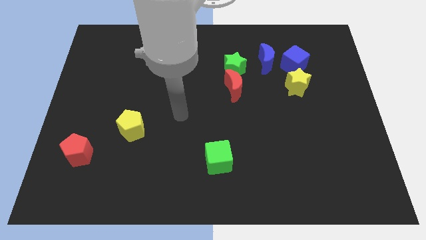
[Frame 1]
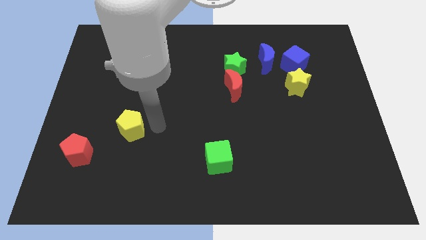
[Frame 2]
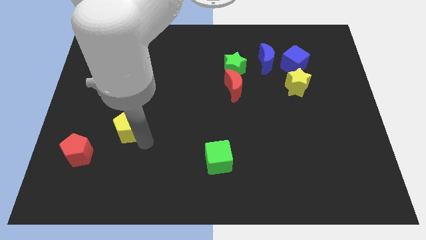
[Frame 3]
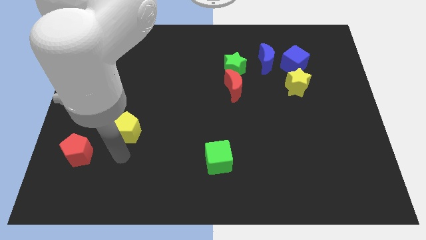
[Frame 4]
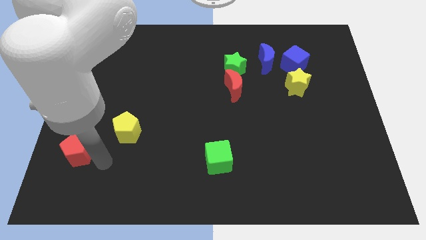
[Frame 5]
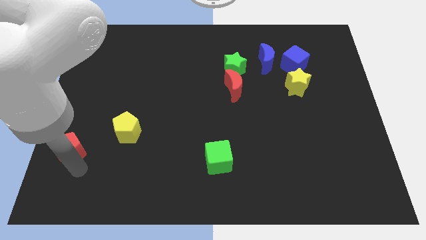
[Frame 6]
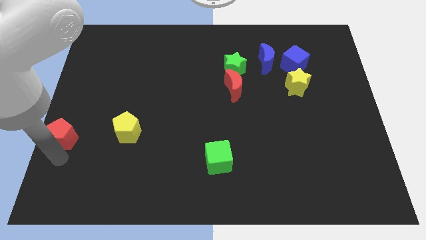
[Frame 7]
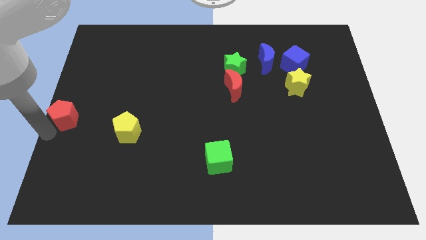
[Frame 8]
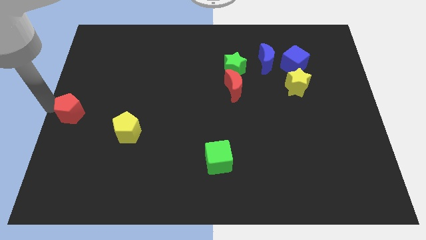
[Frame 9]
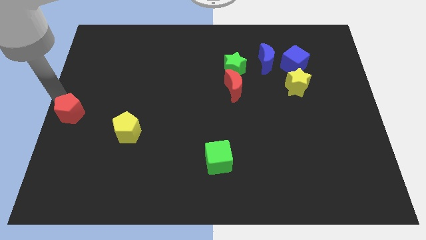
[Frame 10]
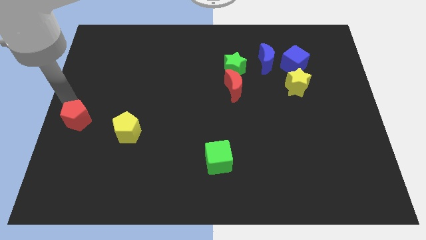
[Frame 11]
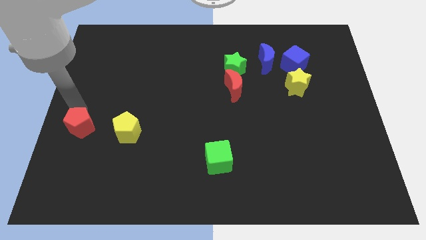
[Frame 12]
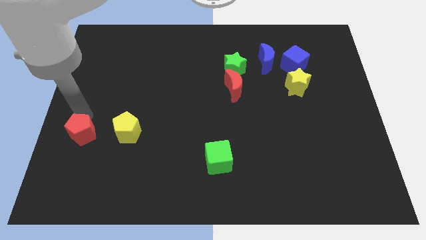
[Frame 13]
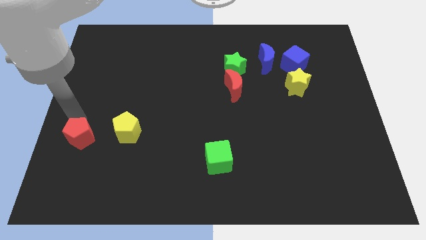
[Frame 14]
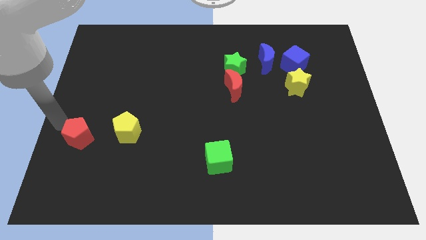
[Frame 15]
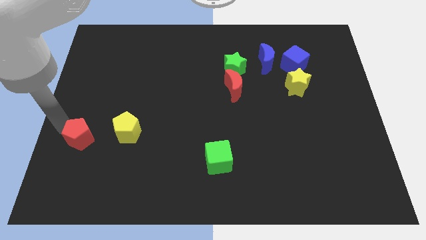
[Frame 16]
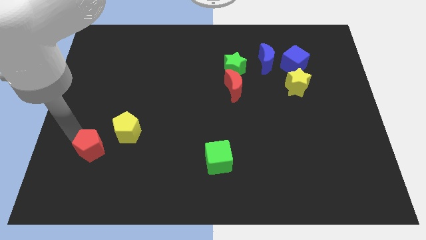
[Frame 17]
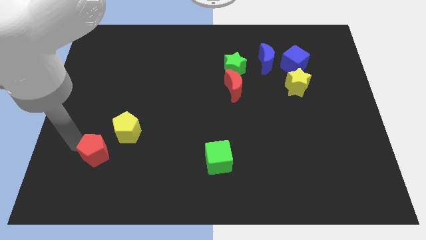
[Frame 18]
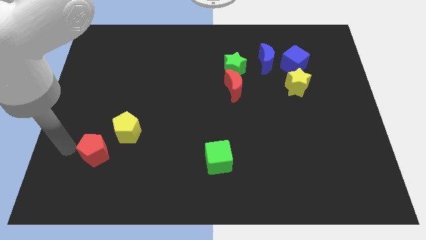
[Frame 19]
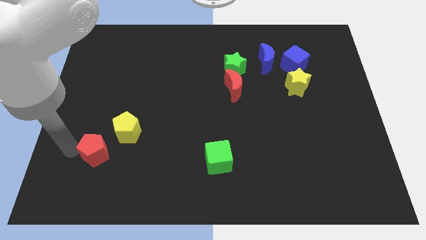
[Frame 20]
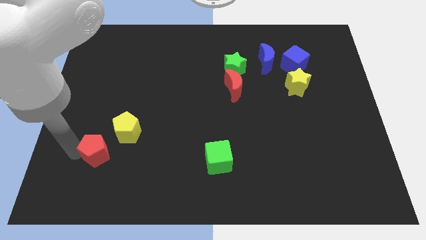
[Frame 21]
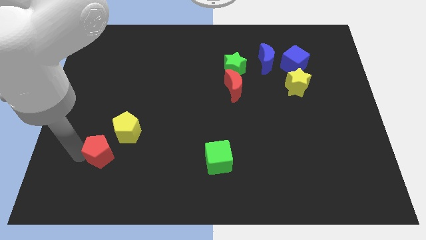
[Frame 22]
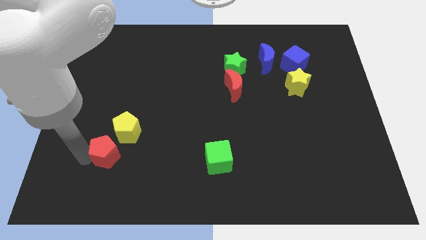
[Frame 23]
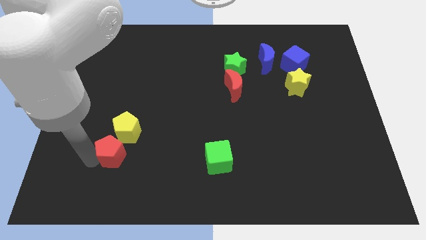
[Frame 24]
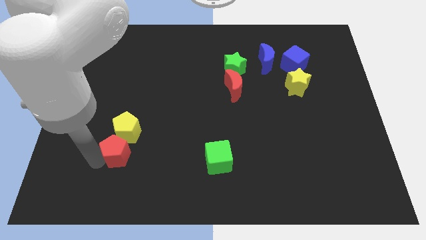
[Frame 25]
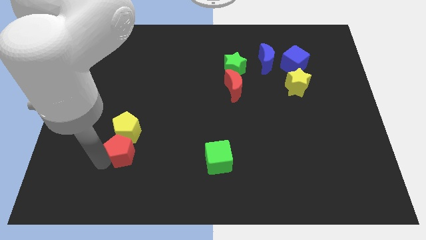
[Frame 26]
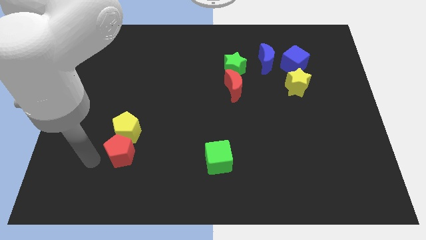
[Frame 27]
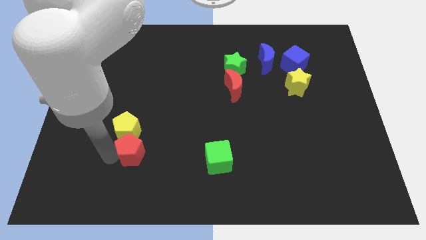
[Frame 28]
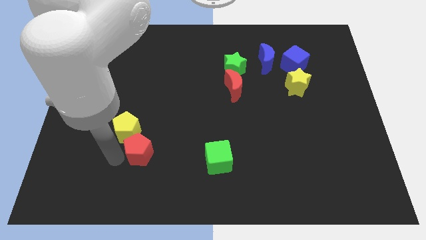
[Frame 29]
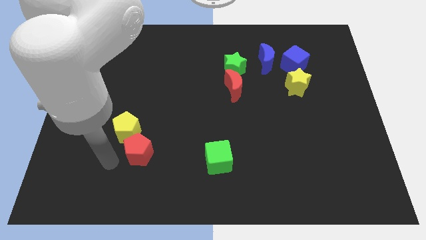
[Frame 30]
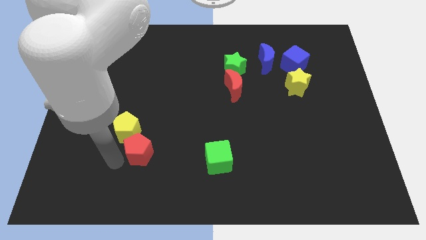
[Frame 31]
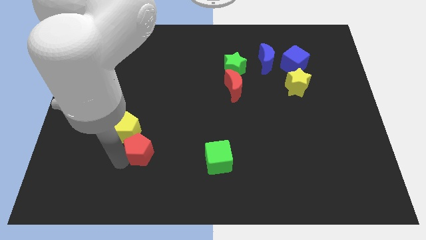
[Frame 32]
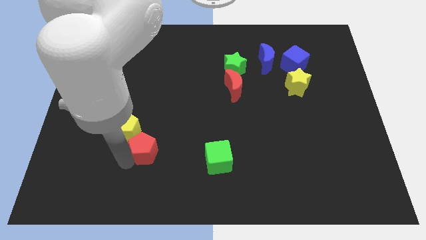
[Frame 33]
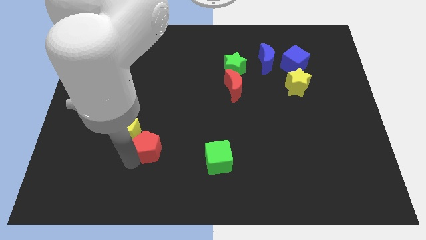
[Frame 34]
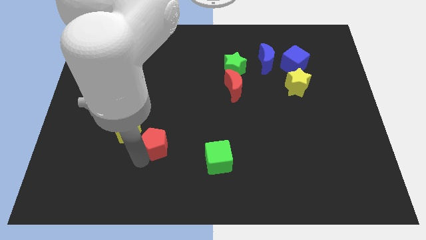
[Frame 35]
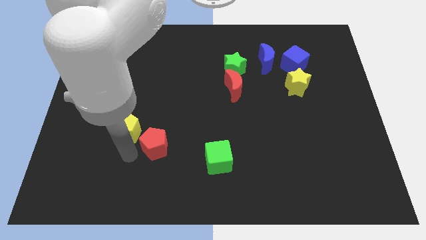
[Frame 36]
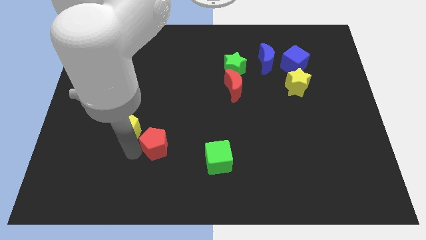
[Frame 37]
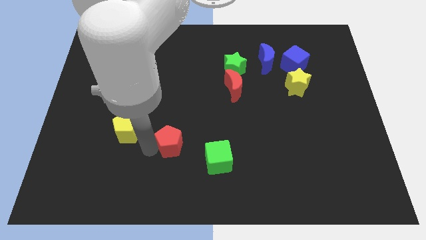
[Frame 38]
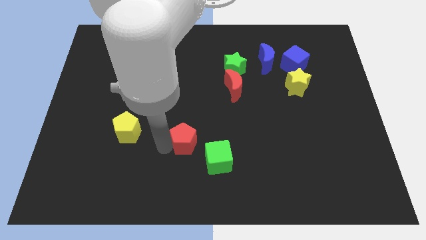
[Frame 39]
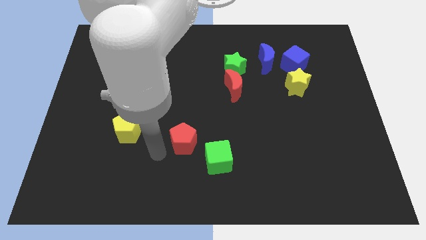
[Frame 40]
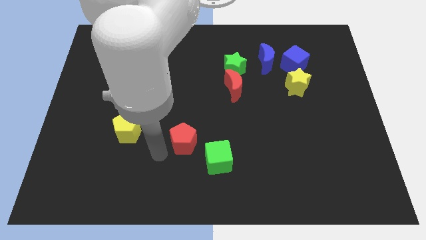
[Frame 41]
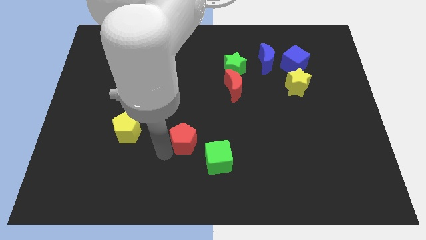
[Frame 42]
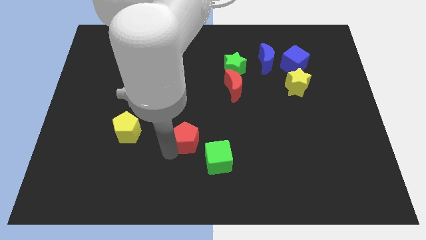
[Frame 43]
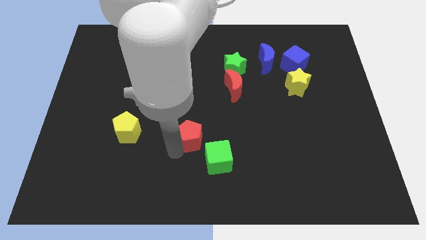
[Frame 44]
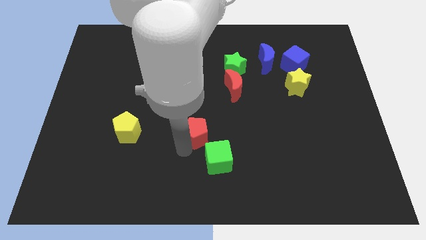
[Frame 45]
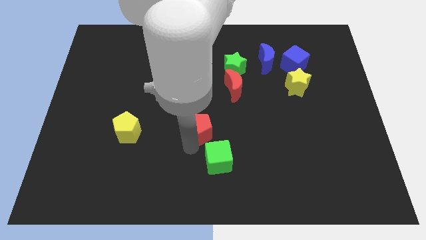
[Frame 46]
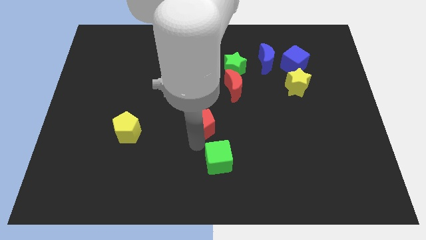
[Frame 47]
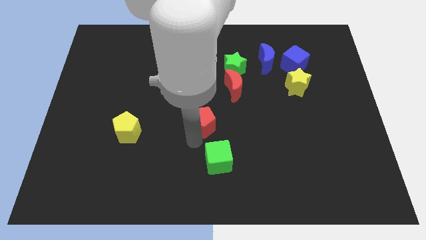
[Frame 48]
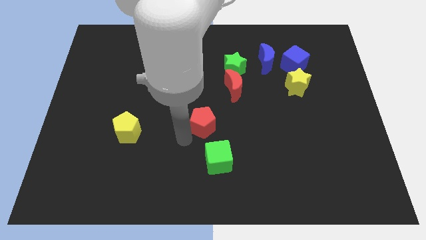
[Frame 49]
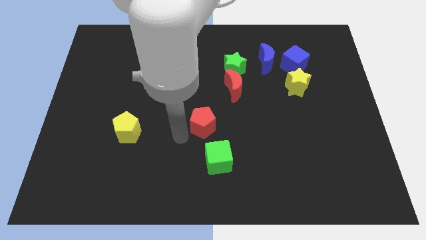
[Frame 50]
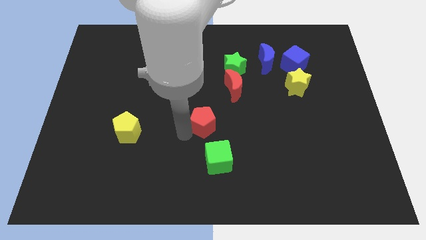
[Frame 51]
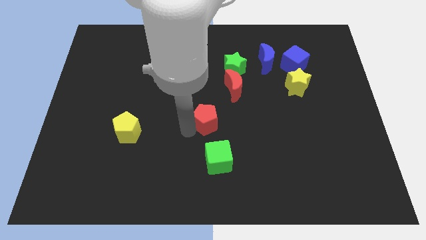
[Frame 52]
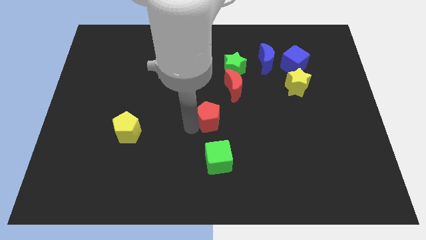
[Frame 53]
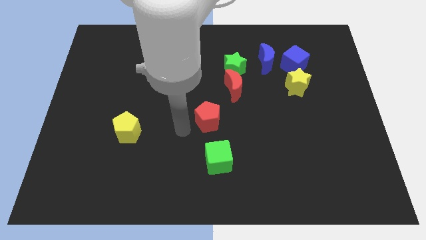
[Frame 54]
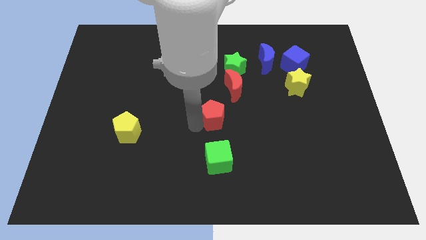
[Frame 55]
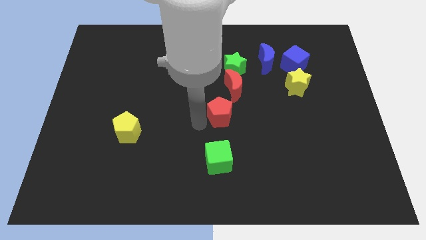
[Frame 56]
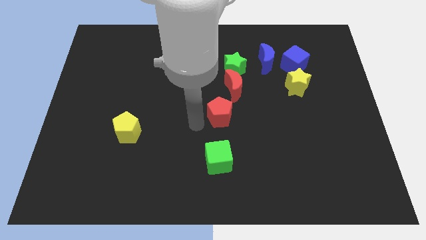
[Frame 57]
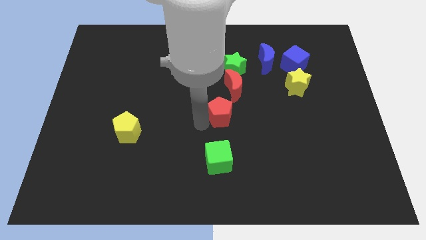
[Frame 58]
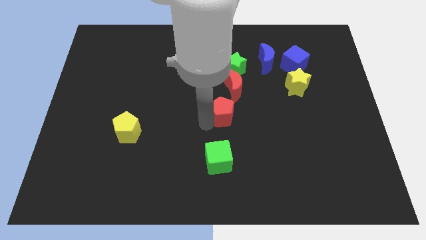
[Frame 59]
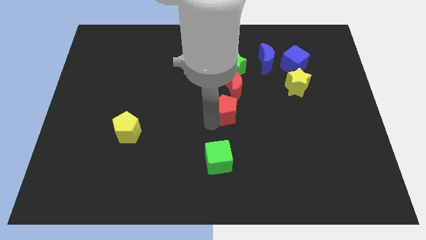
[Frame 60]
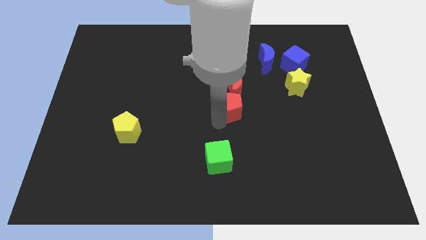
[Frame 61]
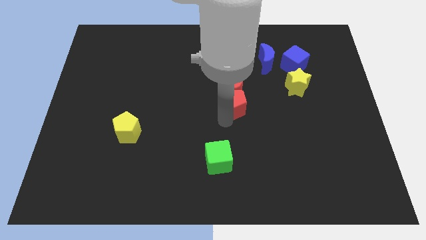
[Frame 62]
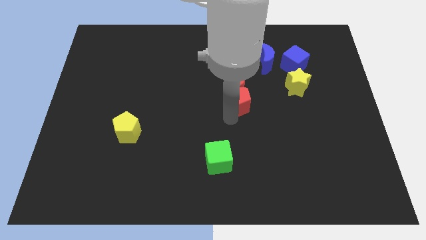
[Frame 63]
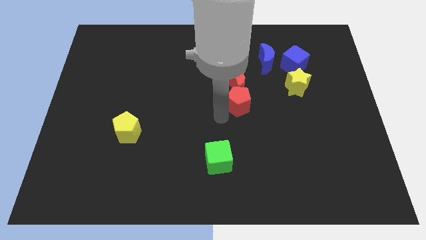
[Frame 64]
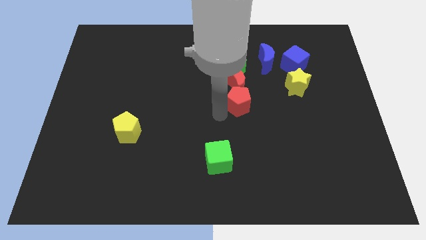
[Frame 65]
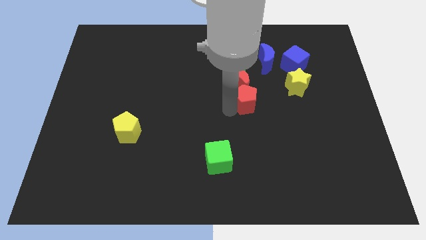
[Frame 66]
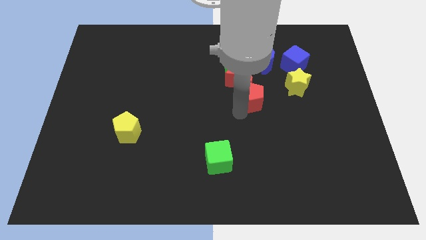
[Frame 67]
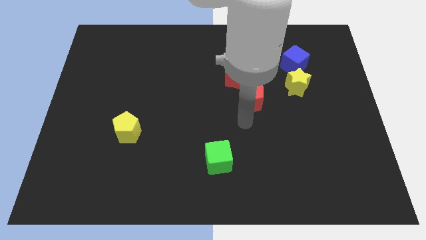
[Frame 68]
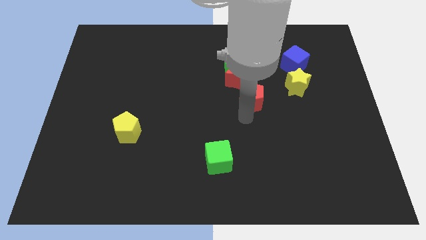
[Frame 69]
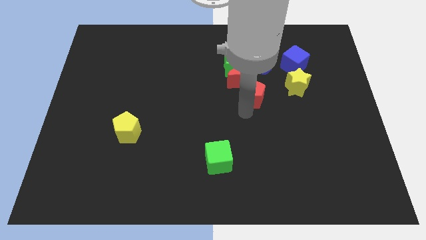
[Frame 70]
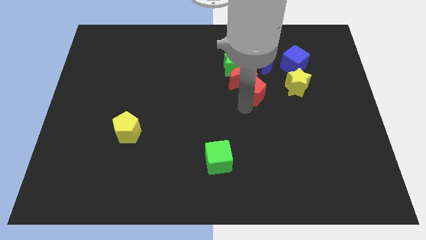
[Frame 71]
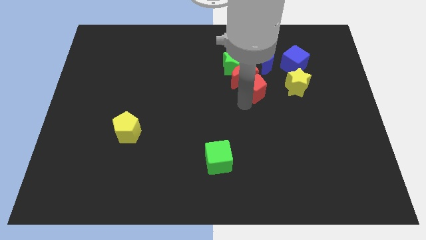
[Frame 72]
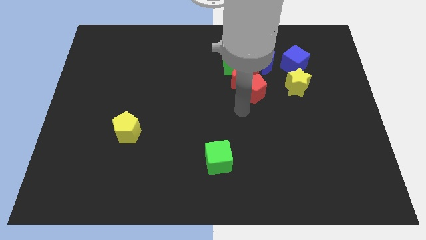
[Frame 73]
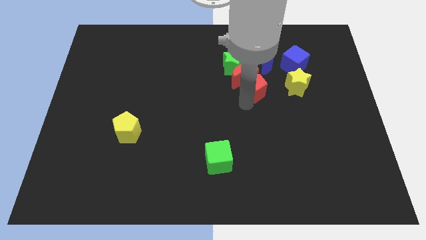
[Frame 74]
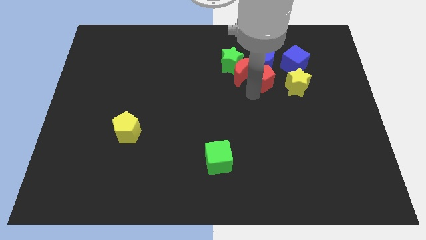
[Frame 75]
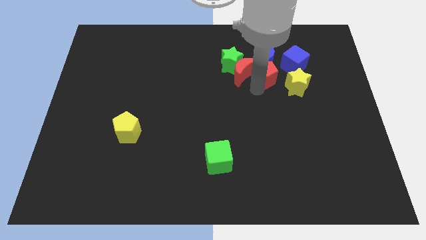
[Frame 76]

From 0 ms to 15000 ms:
move the red pentagon towards the blue moon
